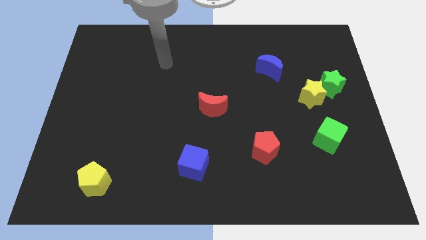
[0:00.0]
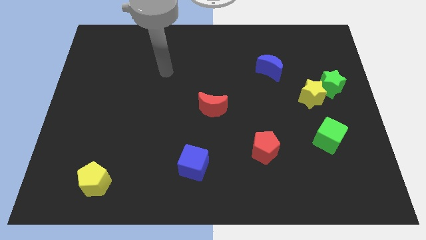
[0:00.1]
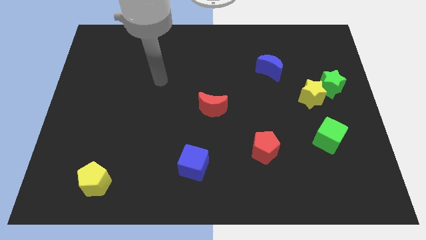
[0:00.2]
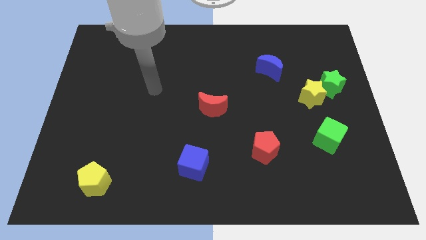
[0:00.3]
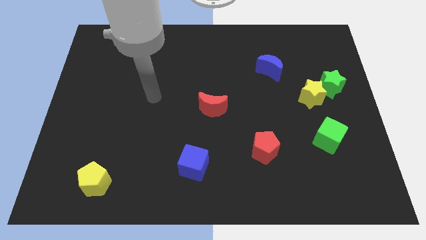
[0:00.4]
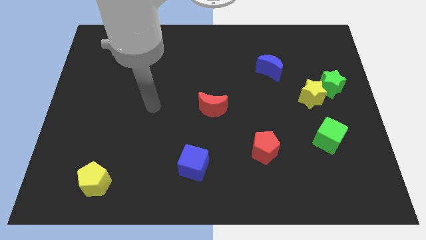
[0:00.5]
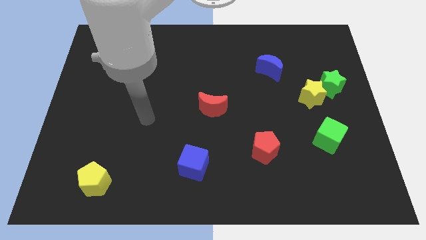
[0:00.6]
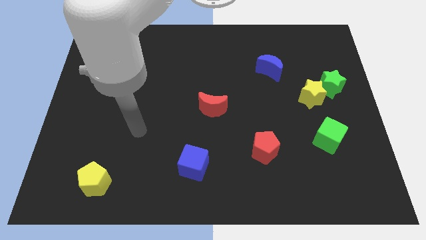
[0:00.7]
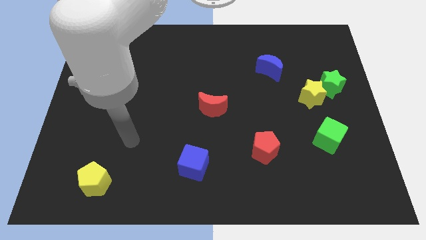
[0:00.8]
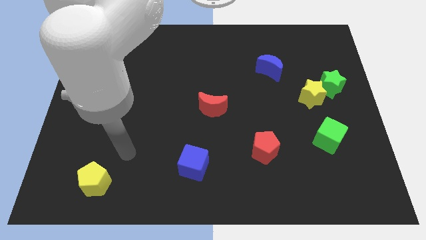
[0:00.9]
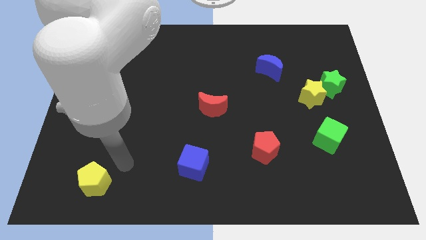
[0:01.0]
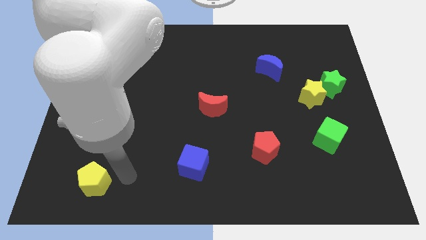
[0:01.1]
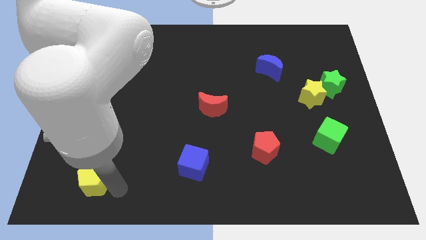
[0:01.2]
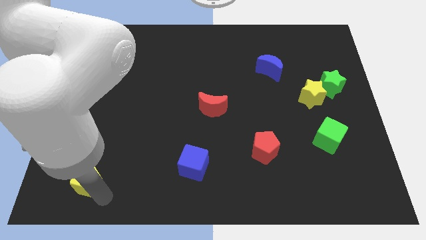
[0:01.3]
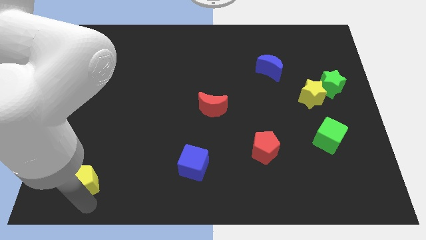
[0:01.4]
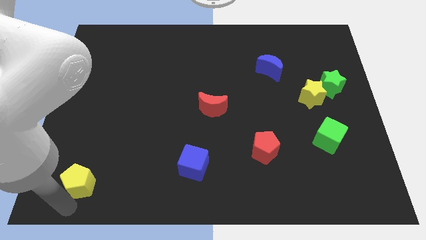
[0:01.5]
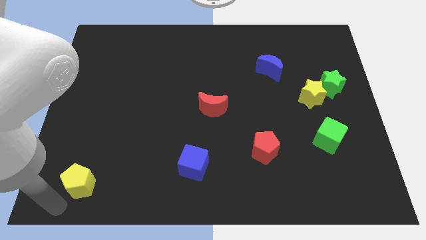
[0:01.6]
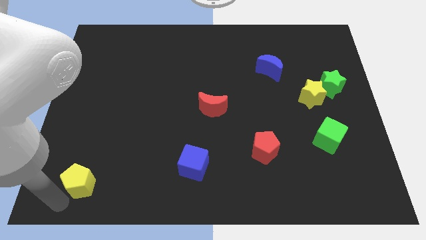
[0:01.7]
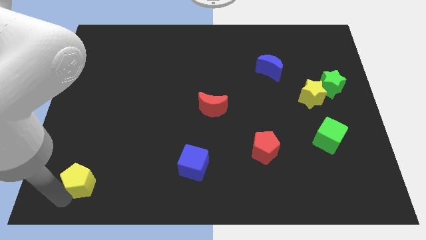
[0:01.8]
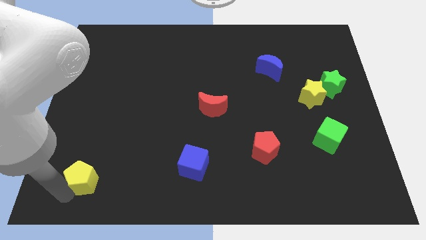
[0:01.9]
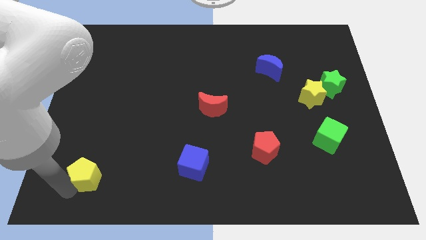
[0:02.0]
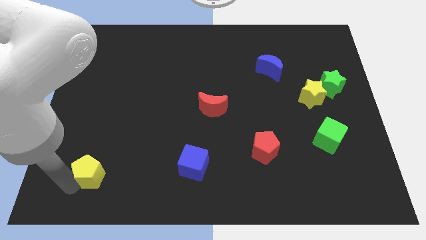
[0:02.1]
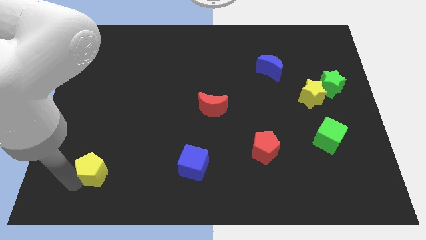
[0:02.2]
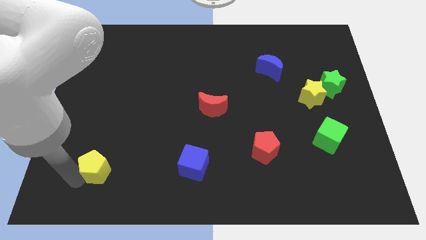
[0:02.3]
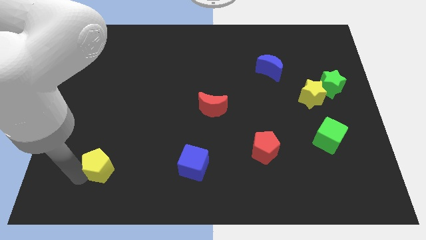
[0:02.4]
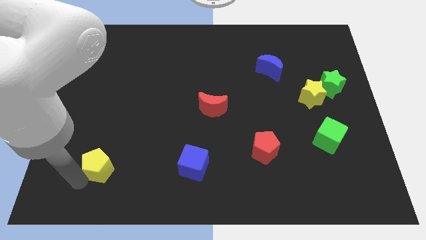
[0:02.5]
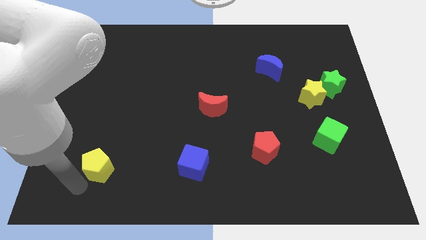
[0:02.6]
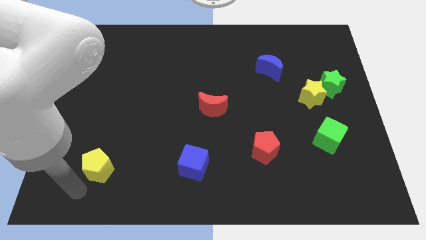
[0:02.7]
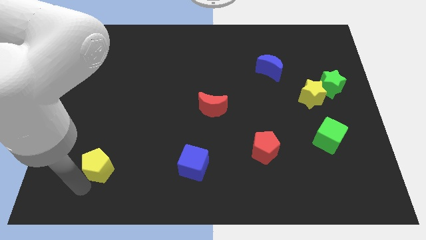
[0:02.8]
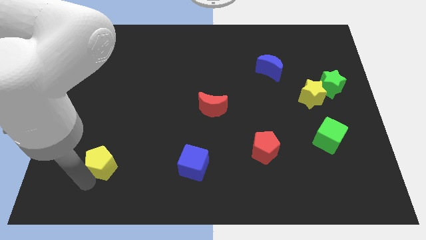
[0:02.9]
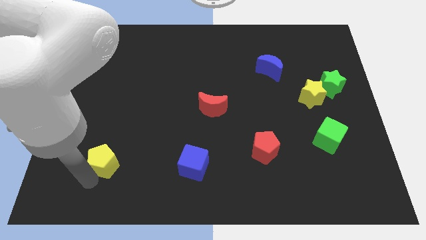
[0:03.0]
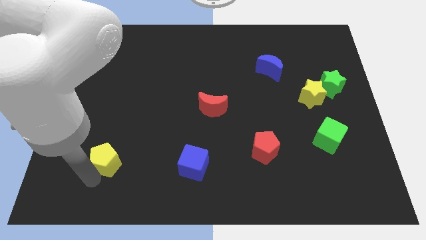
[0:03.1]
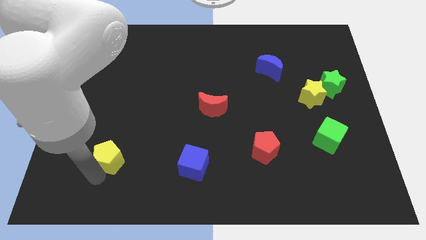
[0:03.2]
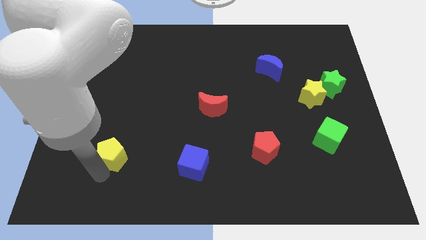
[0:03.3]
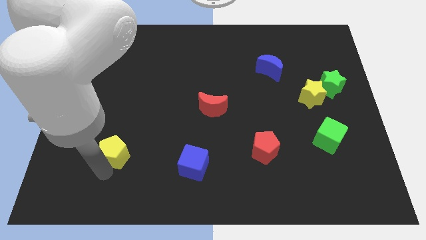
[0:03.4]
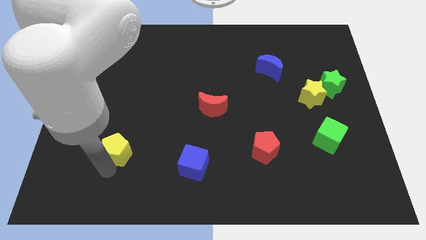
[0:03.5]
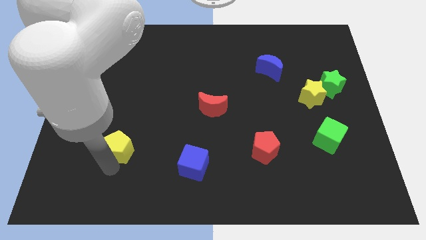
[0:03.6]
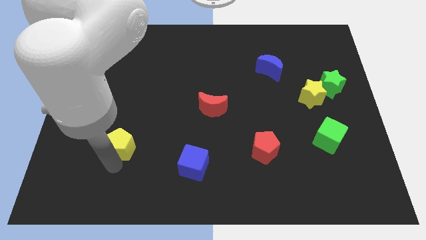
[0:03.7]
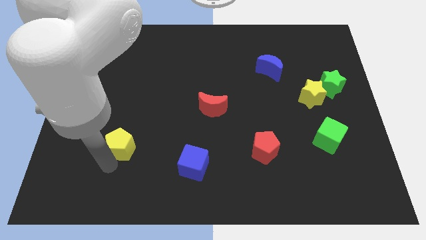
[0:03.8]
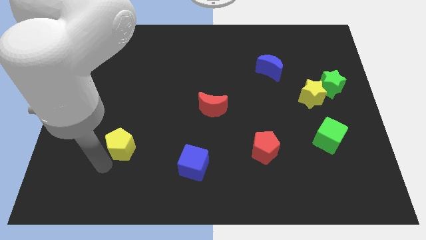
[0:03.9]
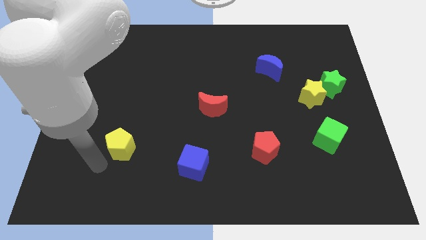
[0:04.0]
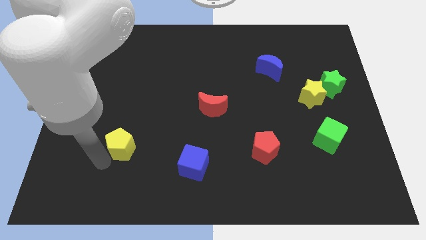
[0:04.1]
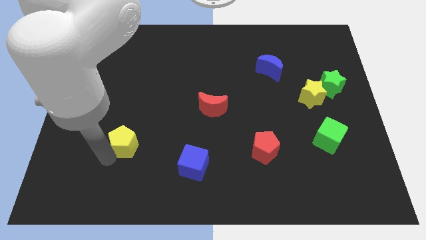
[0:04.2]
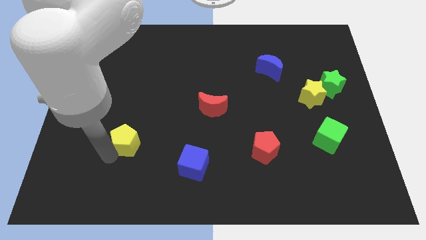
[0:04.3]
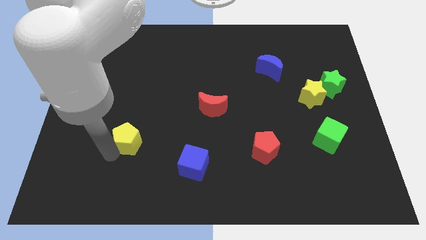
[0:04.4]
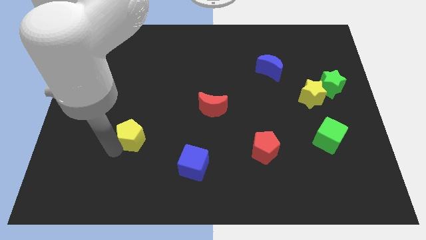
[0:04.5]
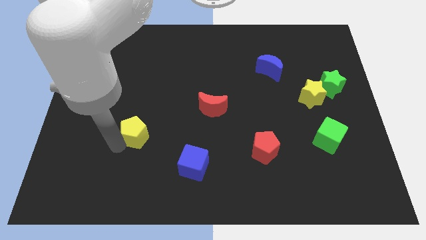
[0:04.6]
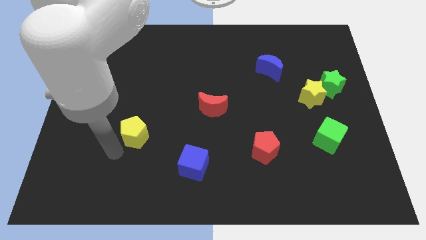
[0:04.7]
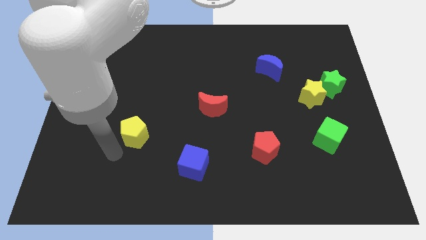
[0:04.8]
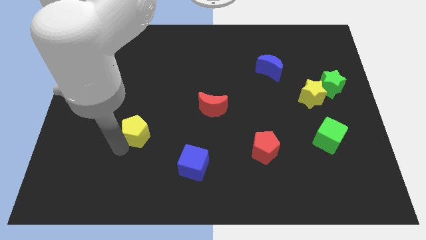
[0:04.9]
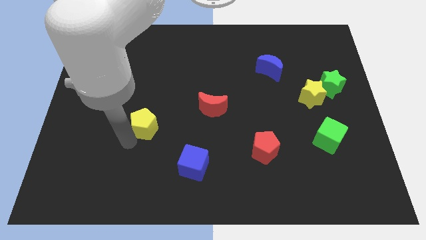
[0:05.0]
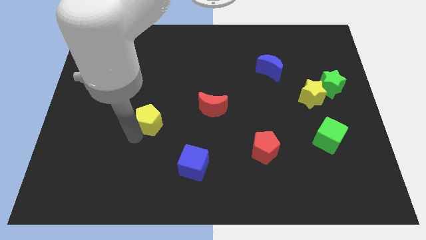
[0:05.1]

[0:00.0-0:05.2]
move the yellow pentagon just left of the red moon

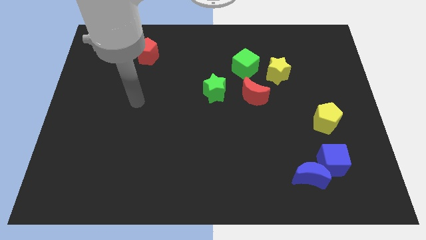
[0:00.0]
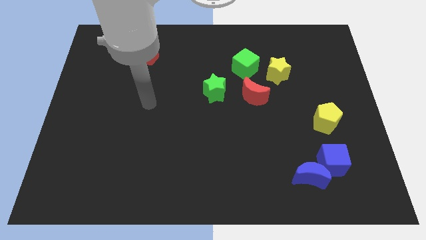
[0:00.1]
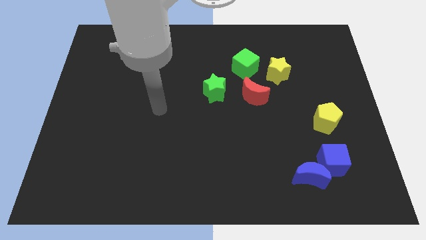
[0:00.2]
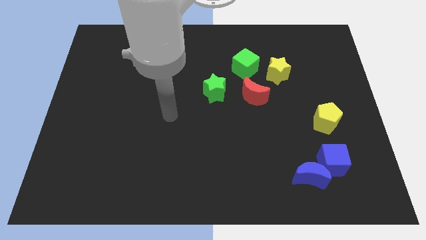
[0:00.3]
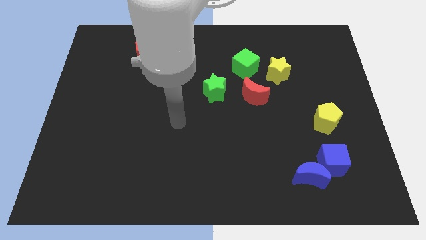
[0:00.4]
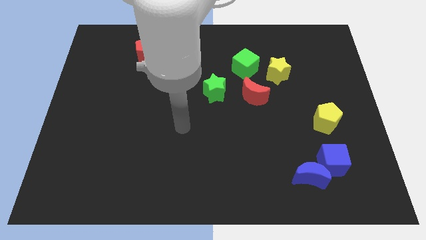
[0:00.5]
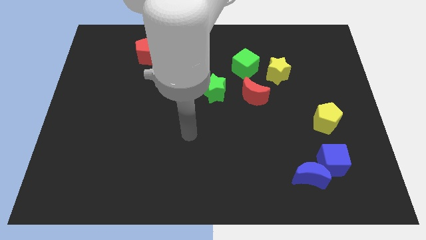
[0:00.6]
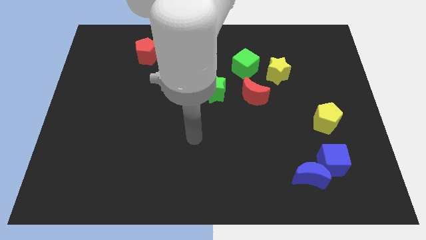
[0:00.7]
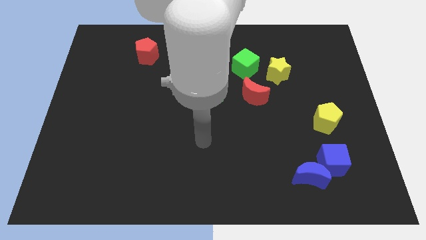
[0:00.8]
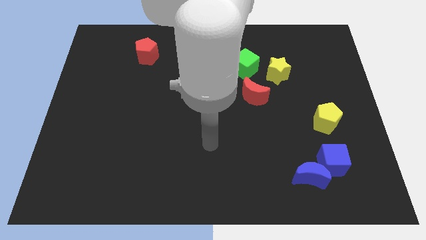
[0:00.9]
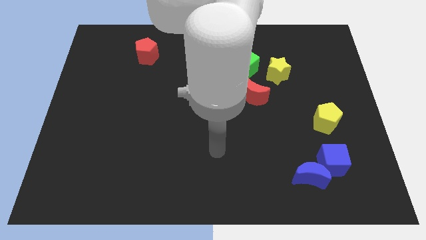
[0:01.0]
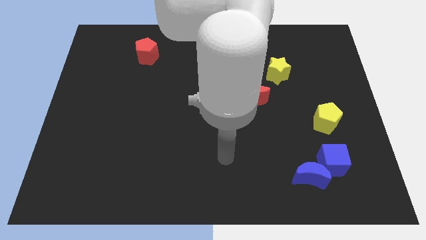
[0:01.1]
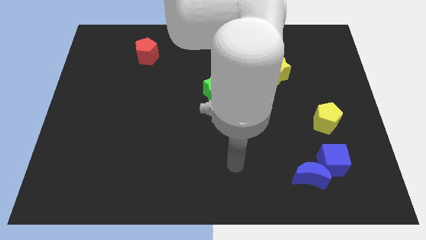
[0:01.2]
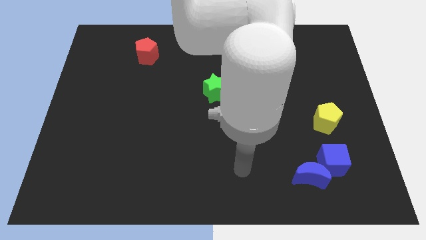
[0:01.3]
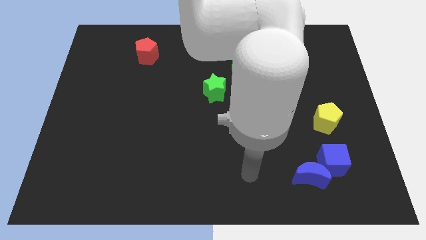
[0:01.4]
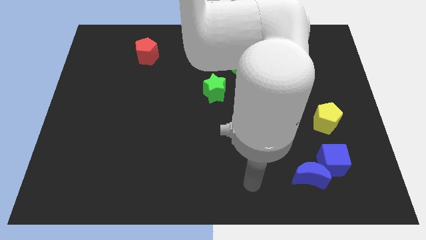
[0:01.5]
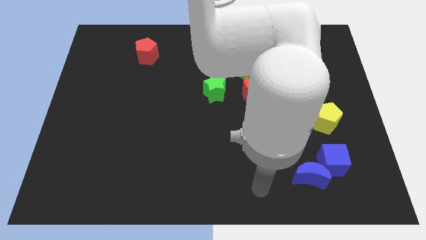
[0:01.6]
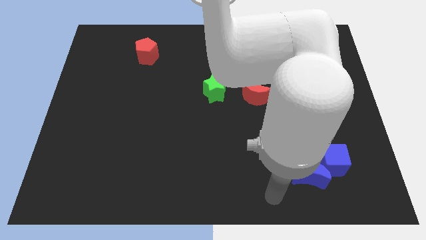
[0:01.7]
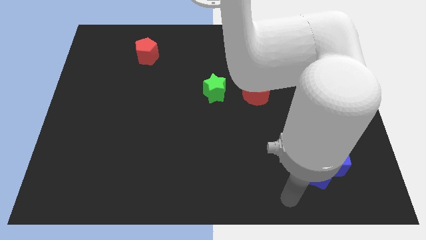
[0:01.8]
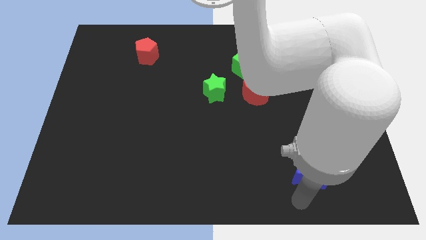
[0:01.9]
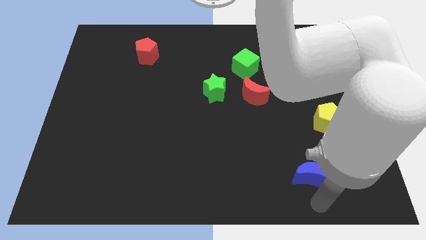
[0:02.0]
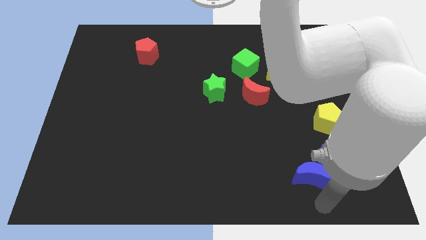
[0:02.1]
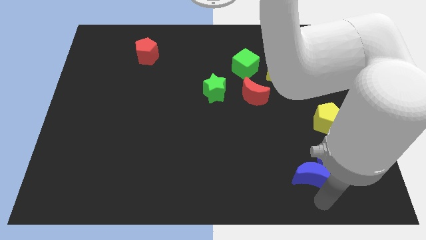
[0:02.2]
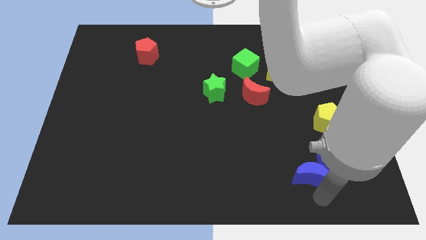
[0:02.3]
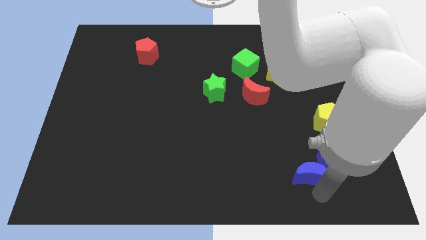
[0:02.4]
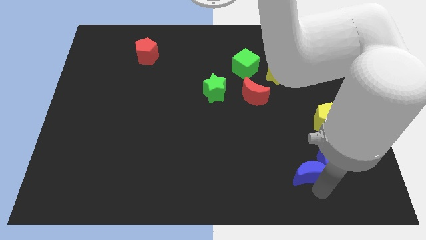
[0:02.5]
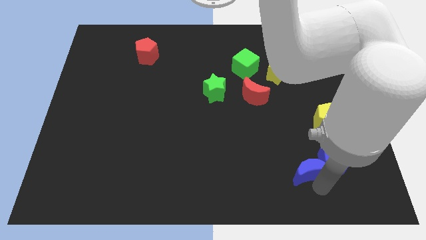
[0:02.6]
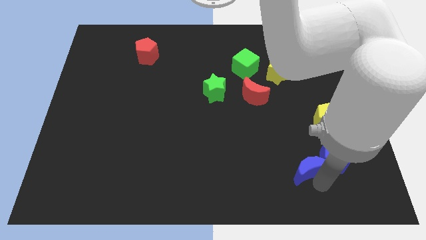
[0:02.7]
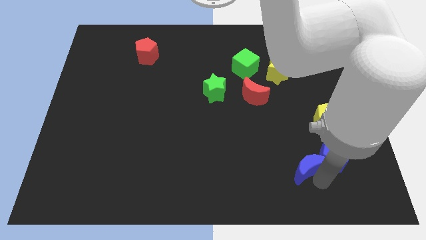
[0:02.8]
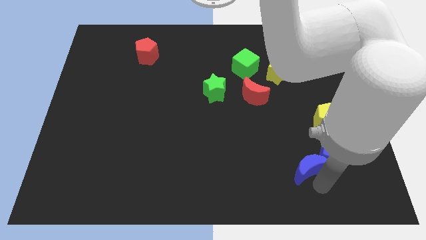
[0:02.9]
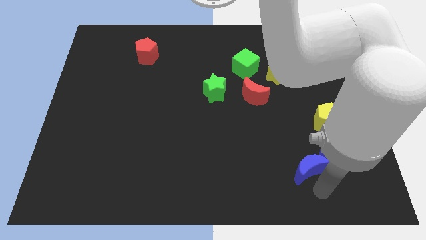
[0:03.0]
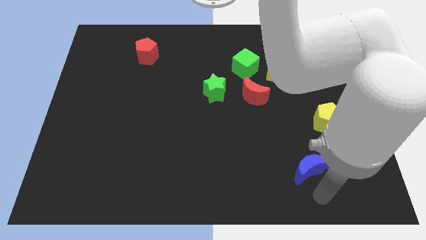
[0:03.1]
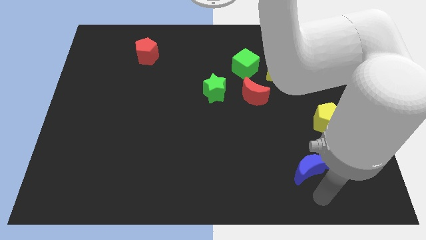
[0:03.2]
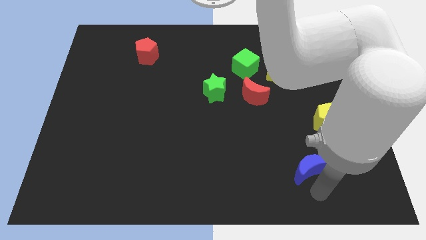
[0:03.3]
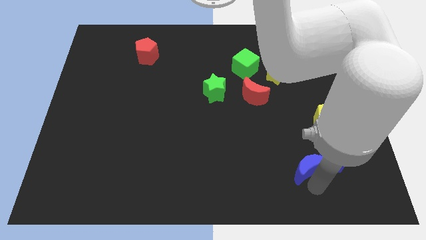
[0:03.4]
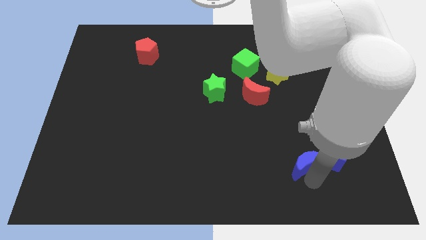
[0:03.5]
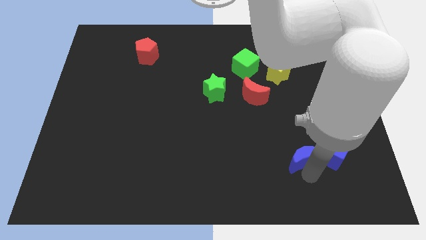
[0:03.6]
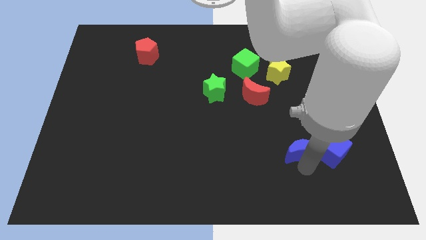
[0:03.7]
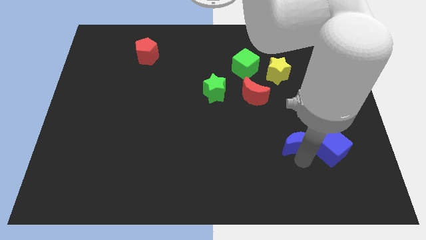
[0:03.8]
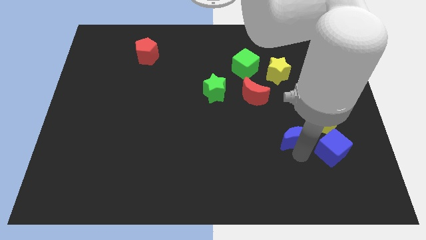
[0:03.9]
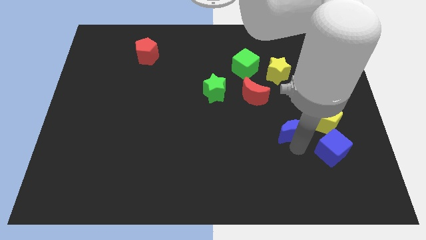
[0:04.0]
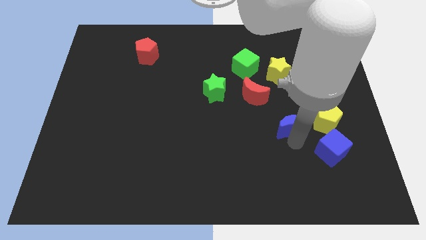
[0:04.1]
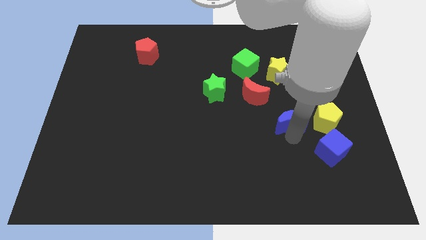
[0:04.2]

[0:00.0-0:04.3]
move the blue moon below the yellow star
